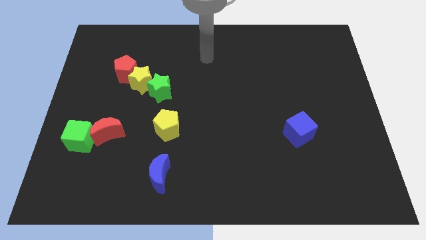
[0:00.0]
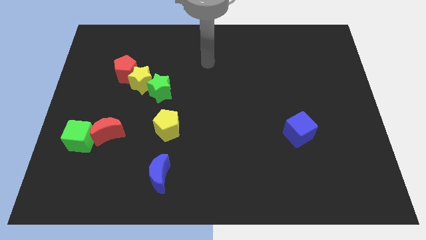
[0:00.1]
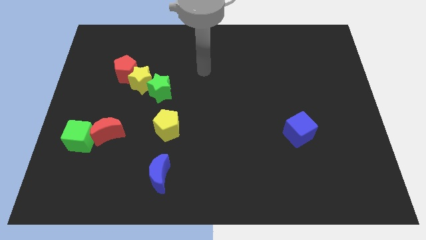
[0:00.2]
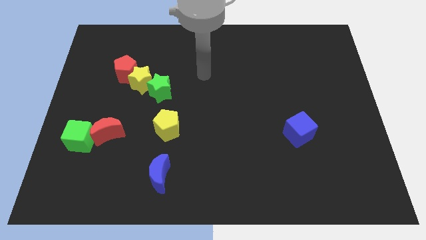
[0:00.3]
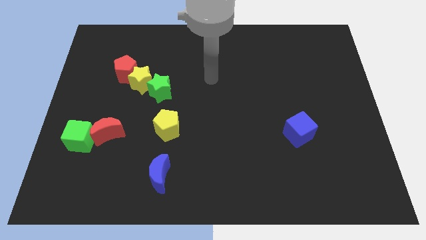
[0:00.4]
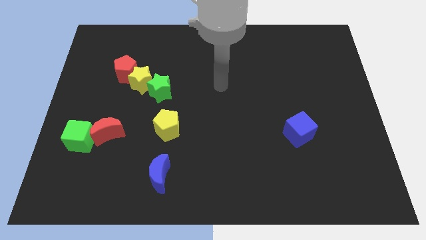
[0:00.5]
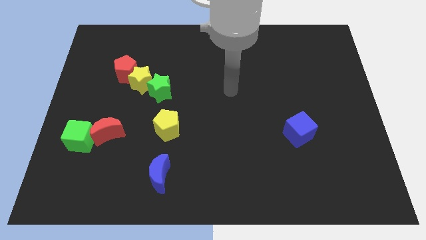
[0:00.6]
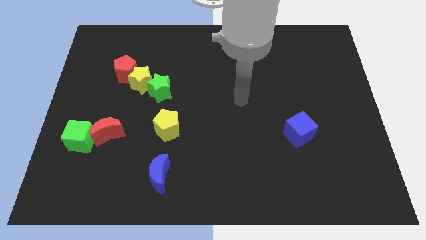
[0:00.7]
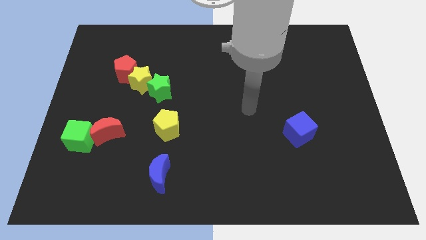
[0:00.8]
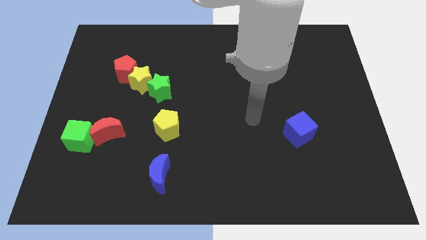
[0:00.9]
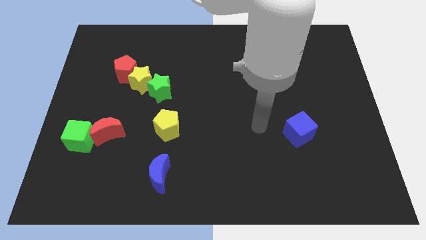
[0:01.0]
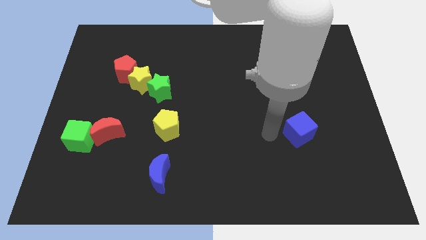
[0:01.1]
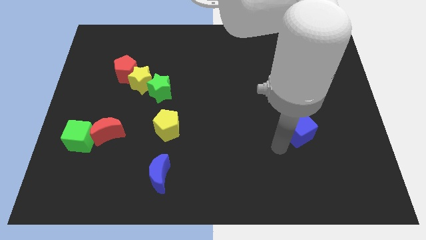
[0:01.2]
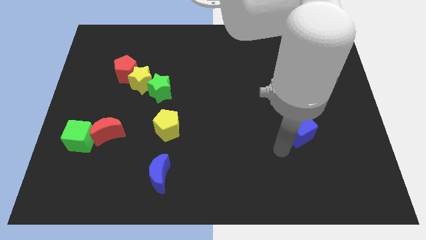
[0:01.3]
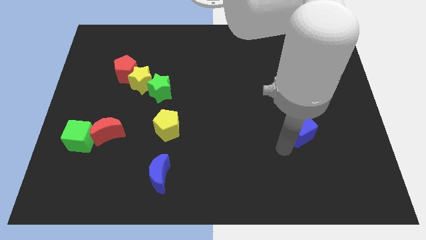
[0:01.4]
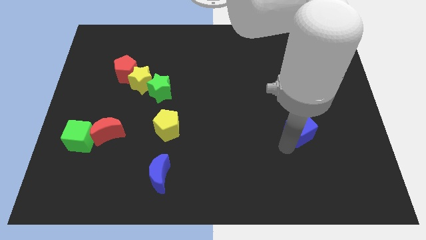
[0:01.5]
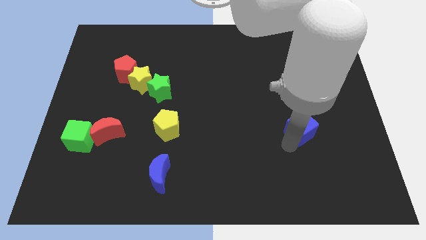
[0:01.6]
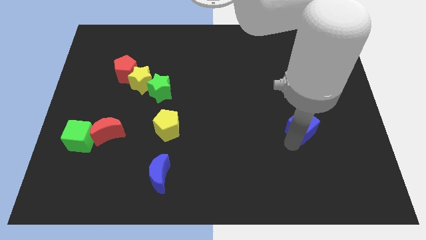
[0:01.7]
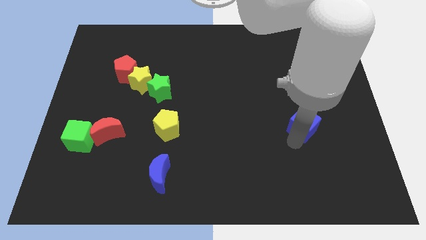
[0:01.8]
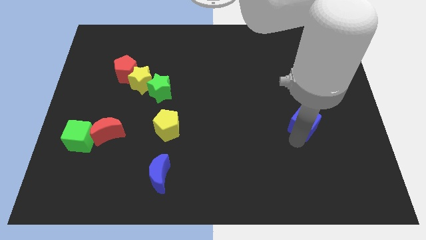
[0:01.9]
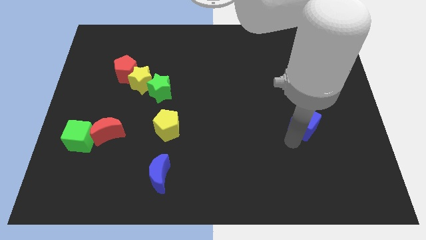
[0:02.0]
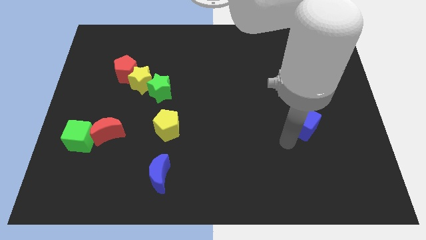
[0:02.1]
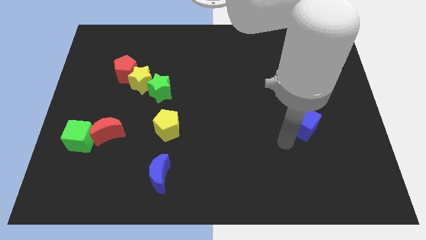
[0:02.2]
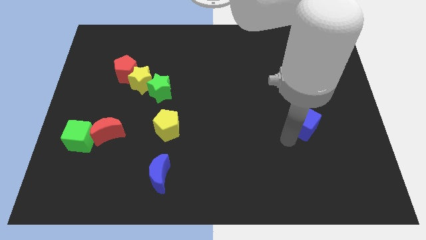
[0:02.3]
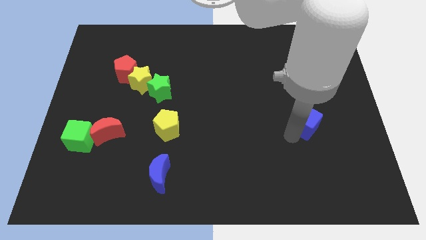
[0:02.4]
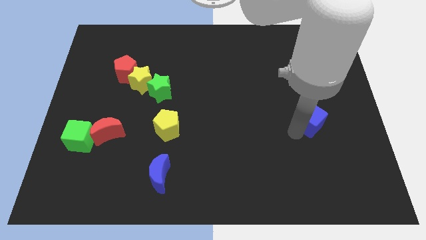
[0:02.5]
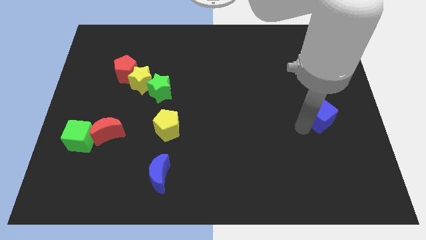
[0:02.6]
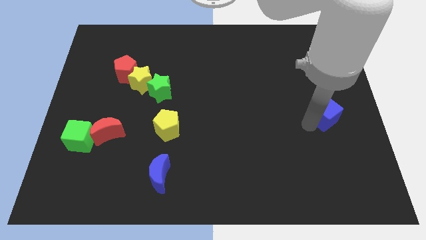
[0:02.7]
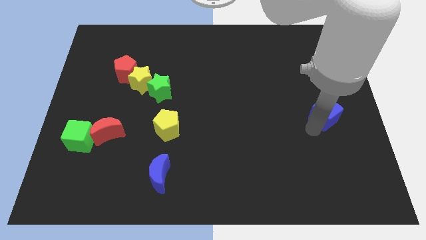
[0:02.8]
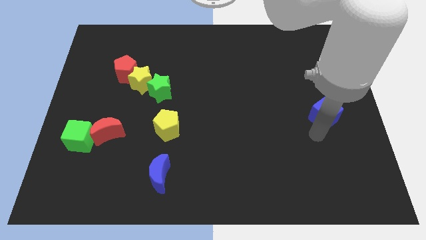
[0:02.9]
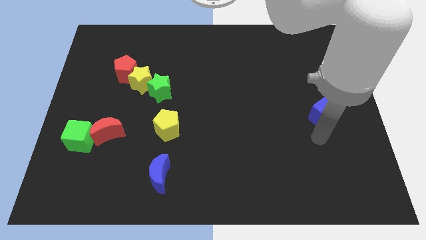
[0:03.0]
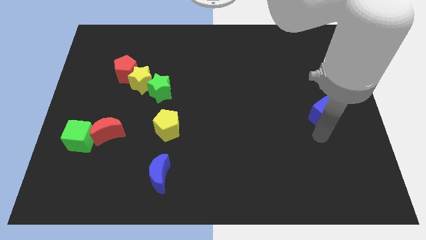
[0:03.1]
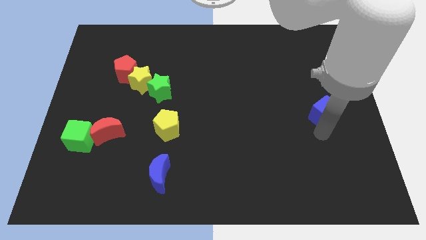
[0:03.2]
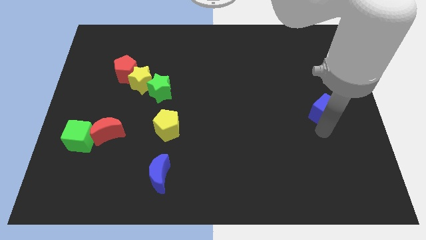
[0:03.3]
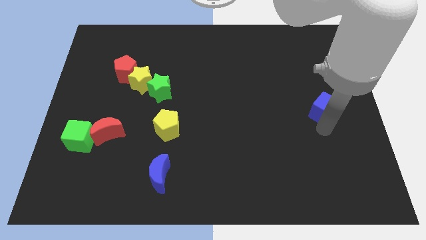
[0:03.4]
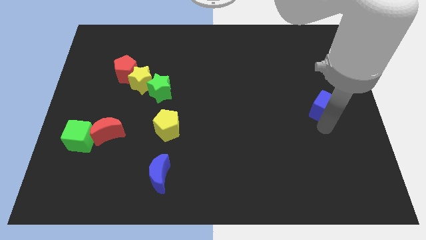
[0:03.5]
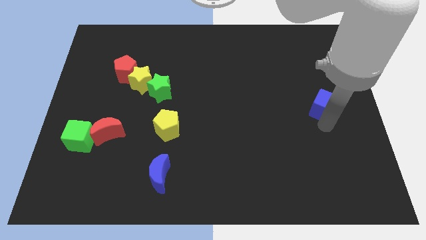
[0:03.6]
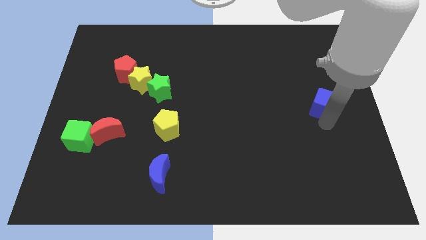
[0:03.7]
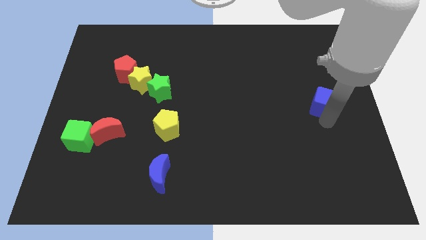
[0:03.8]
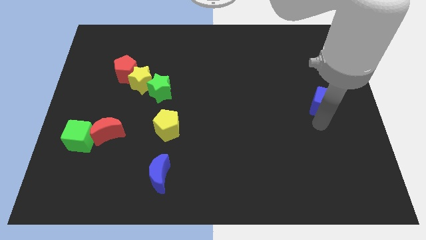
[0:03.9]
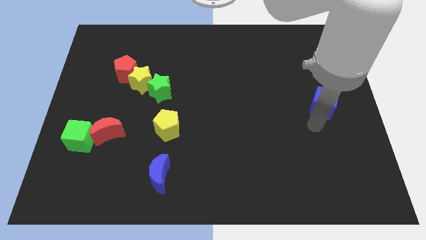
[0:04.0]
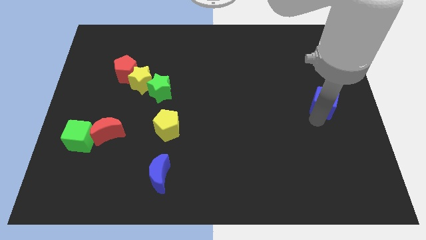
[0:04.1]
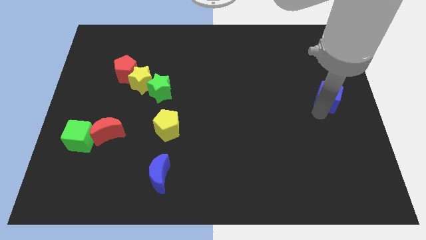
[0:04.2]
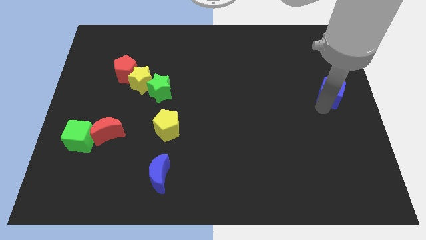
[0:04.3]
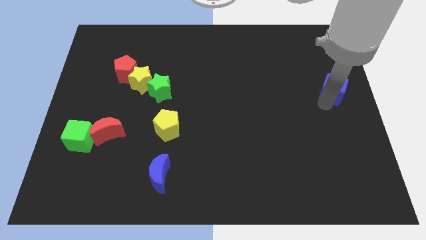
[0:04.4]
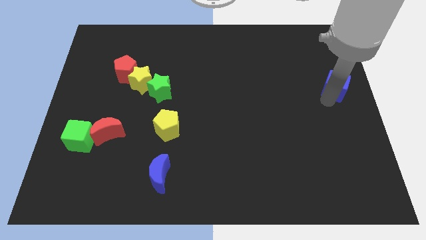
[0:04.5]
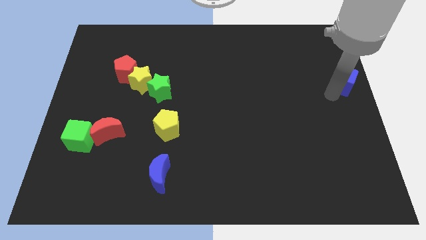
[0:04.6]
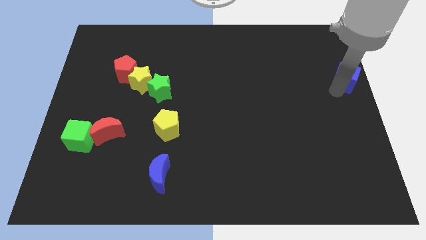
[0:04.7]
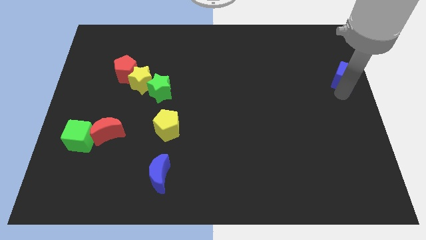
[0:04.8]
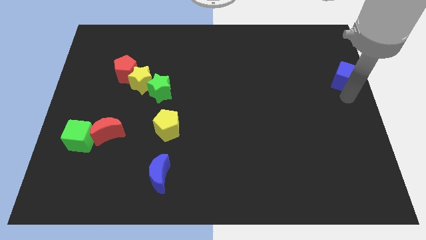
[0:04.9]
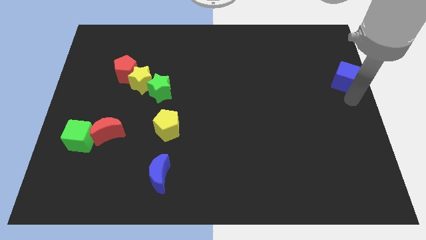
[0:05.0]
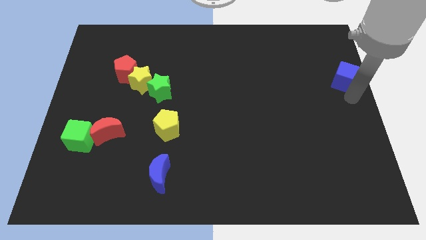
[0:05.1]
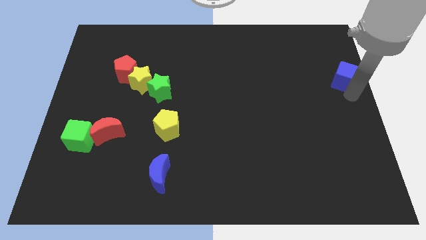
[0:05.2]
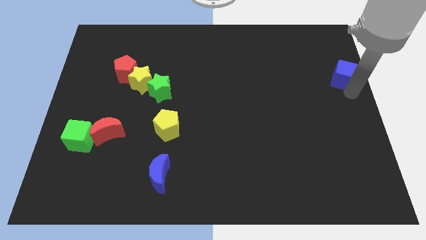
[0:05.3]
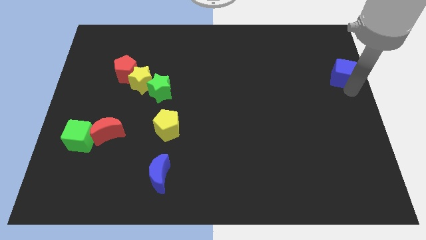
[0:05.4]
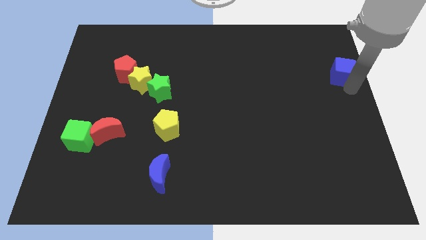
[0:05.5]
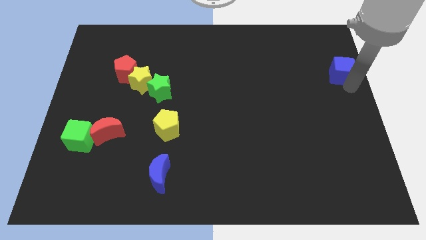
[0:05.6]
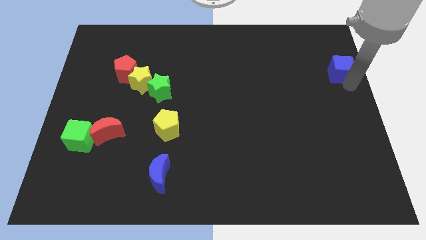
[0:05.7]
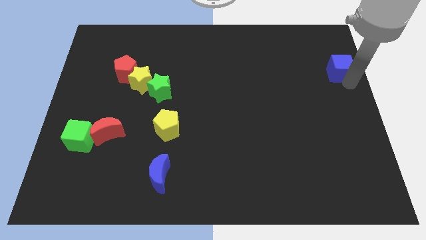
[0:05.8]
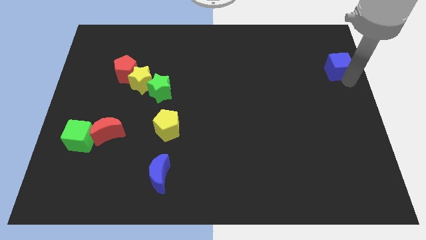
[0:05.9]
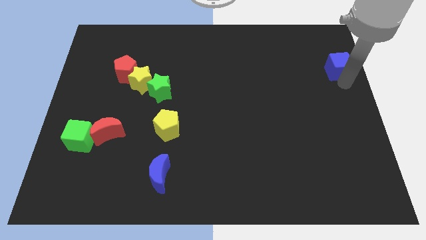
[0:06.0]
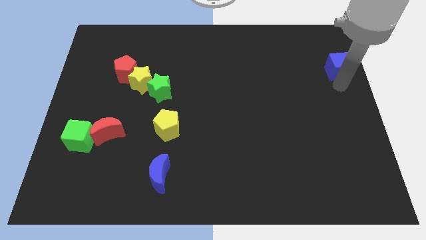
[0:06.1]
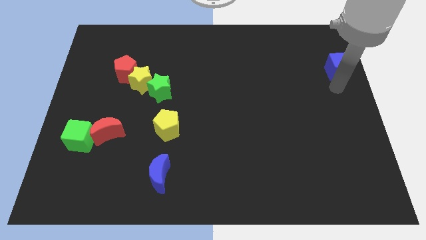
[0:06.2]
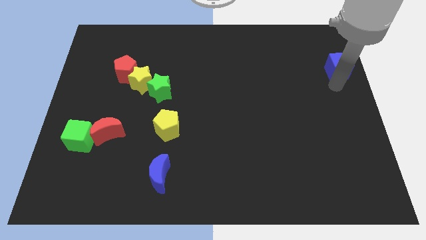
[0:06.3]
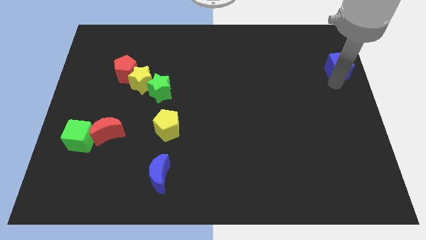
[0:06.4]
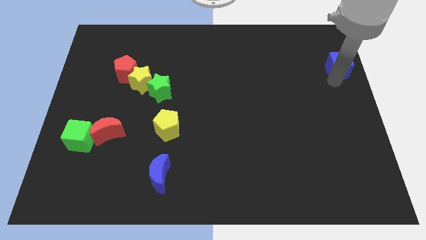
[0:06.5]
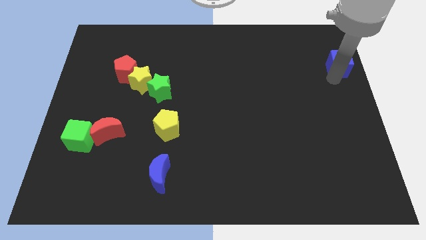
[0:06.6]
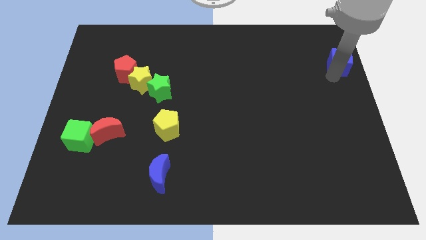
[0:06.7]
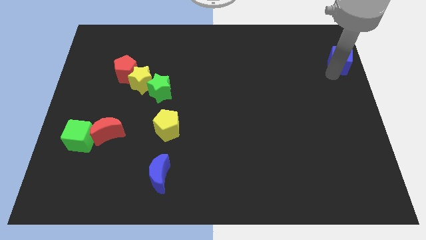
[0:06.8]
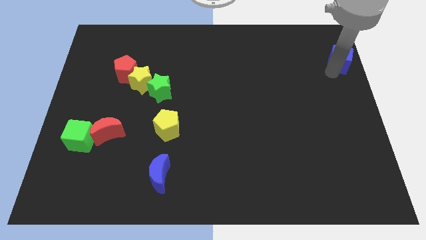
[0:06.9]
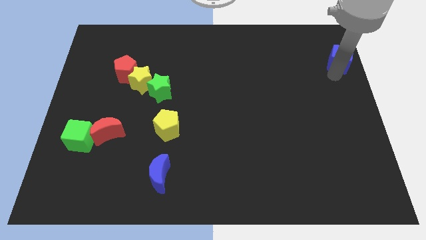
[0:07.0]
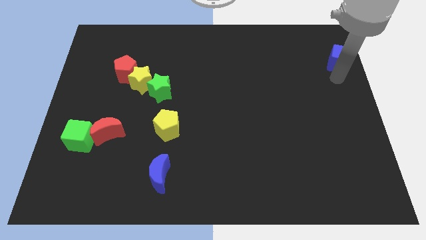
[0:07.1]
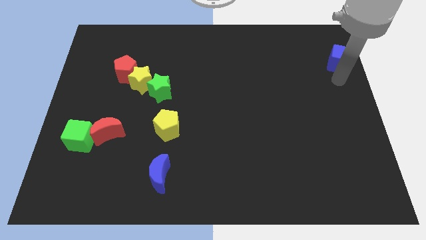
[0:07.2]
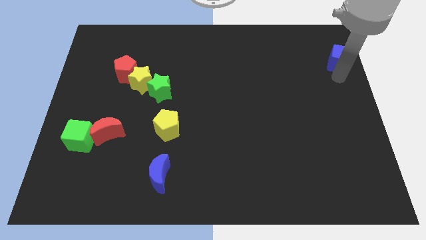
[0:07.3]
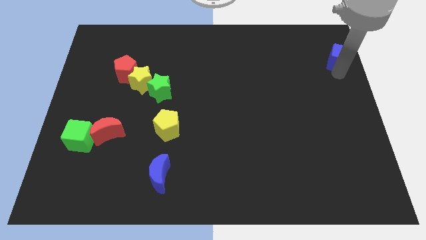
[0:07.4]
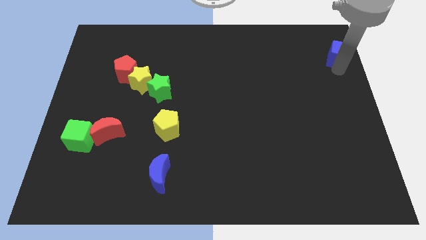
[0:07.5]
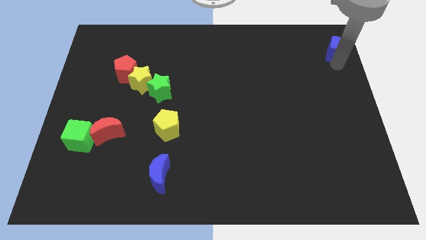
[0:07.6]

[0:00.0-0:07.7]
push the blue cube to the top right of the board
